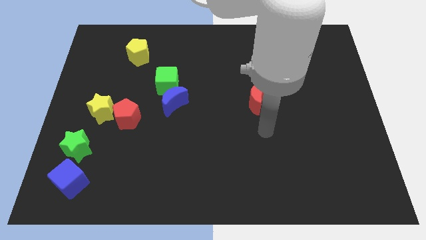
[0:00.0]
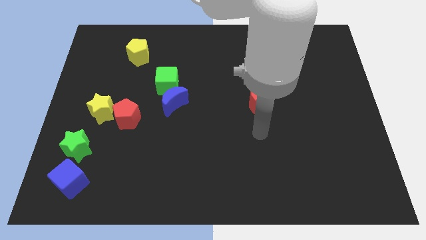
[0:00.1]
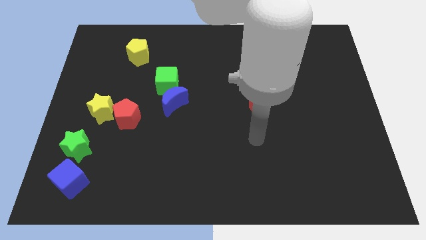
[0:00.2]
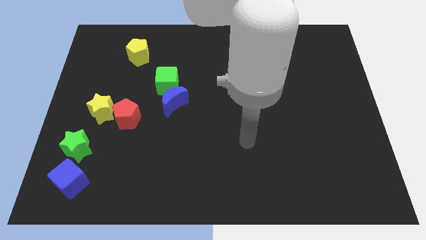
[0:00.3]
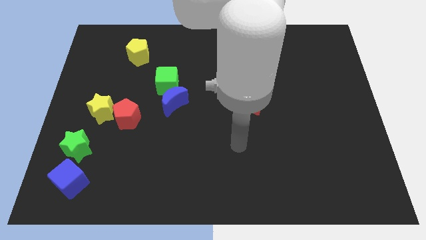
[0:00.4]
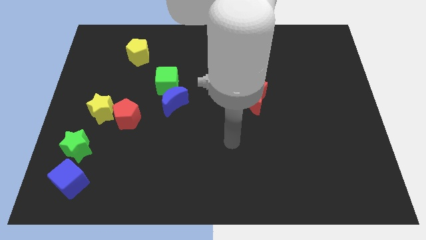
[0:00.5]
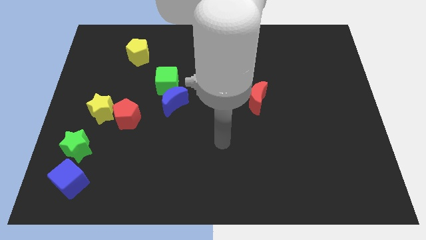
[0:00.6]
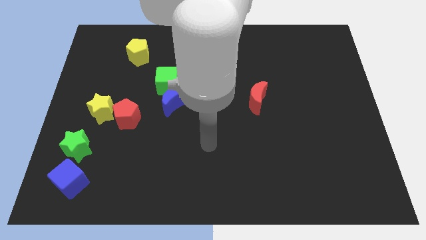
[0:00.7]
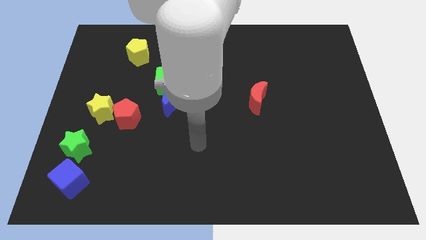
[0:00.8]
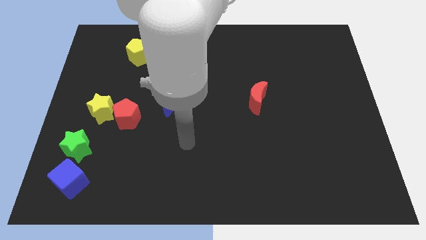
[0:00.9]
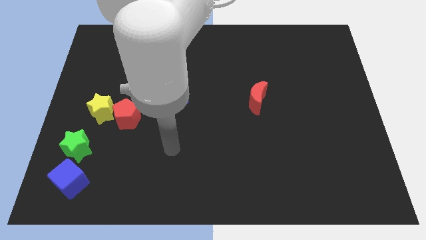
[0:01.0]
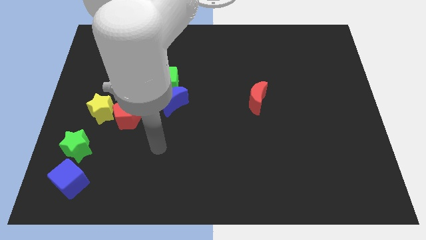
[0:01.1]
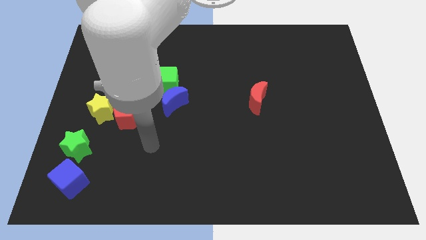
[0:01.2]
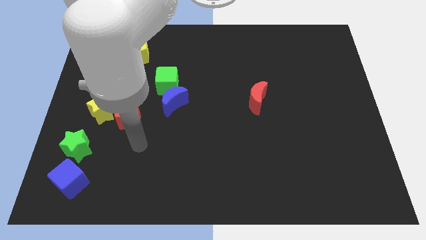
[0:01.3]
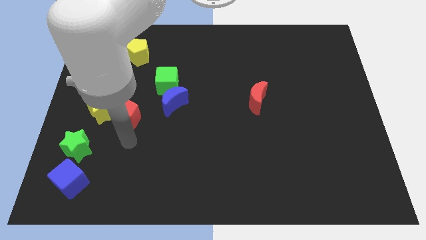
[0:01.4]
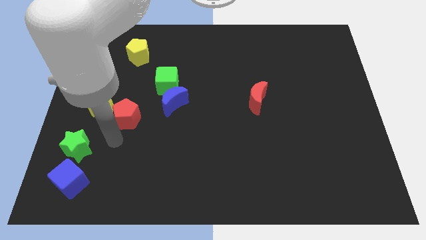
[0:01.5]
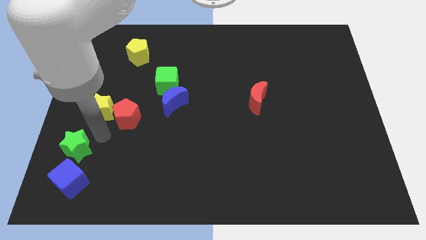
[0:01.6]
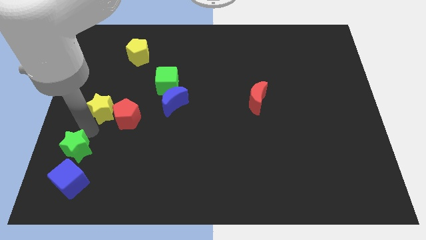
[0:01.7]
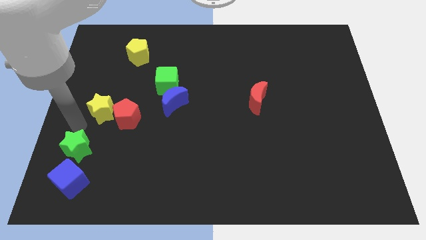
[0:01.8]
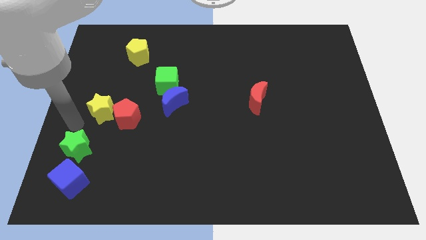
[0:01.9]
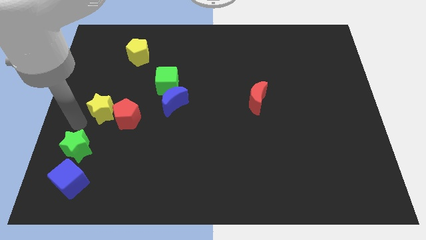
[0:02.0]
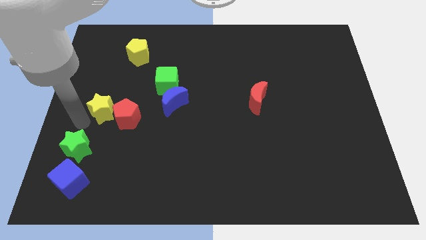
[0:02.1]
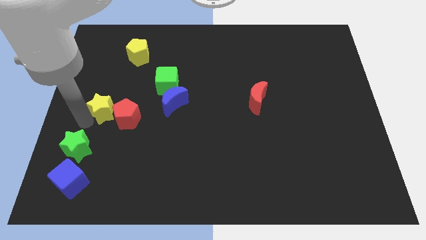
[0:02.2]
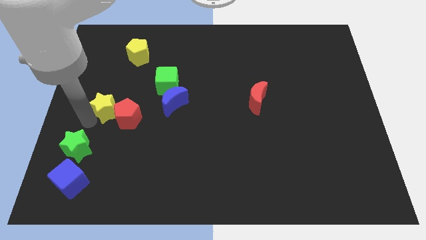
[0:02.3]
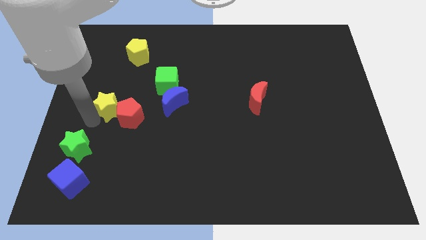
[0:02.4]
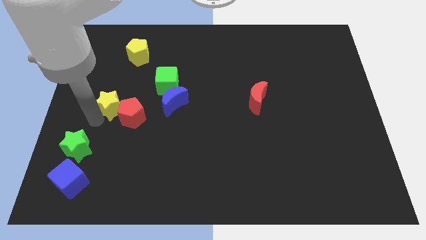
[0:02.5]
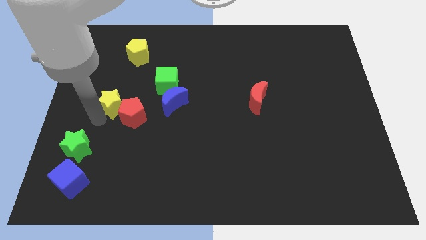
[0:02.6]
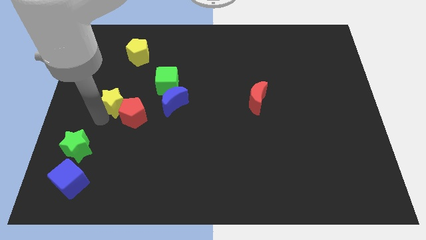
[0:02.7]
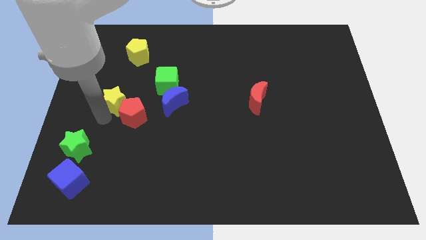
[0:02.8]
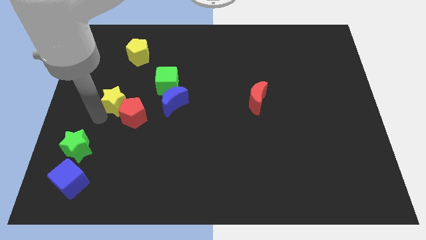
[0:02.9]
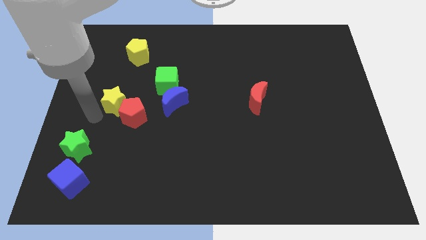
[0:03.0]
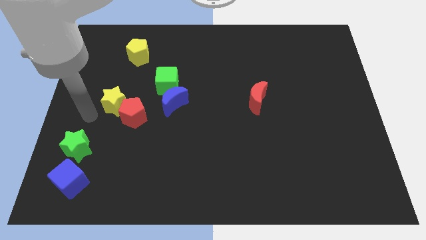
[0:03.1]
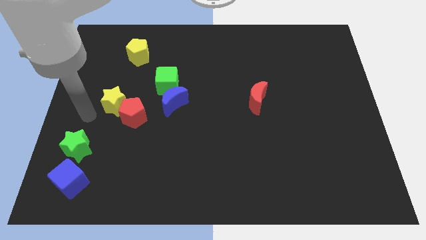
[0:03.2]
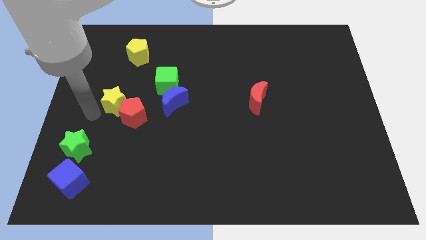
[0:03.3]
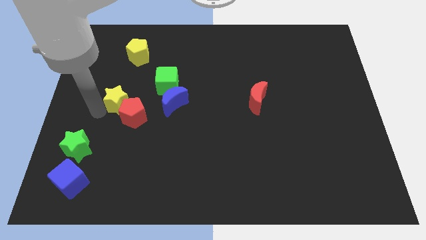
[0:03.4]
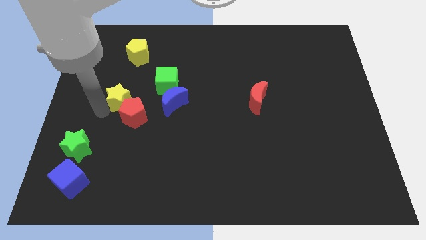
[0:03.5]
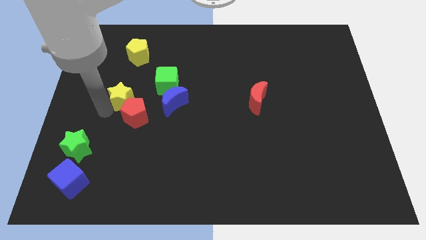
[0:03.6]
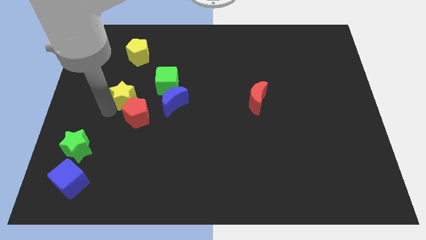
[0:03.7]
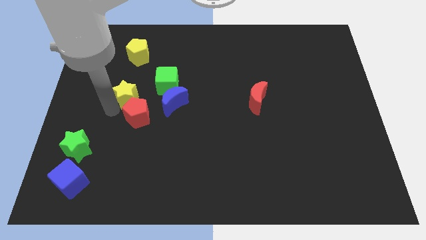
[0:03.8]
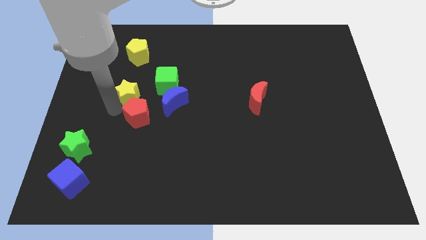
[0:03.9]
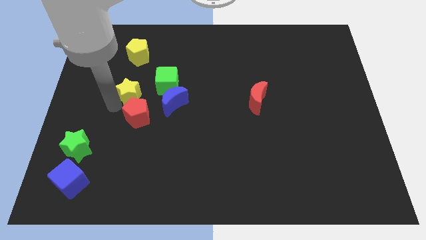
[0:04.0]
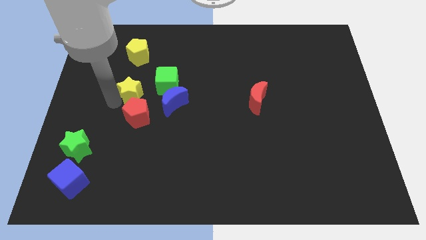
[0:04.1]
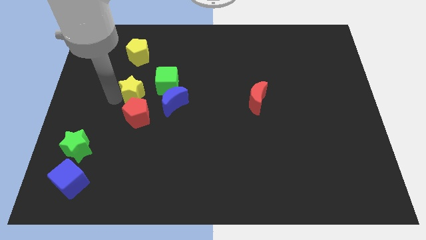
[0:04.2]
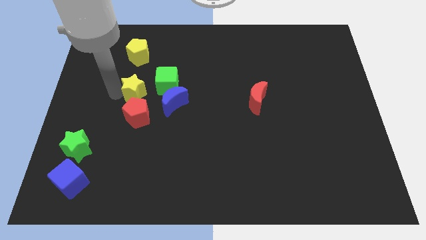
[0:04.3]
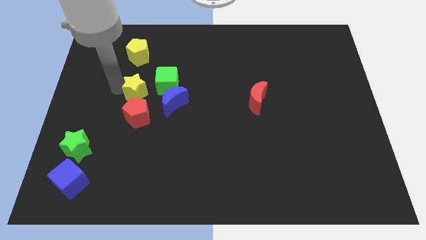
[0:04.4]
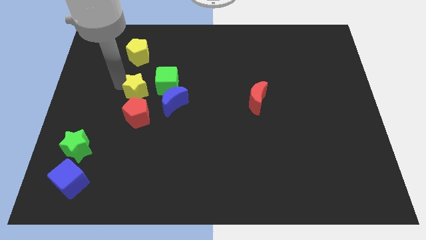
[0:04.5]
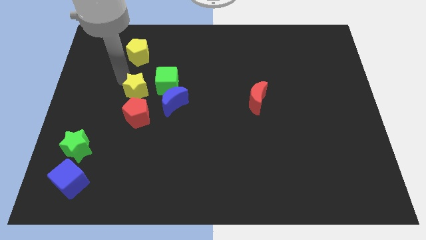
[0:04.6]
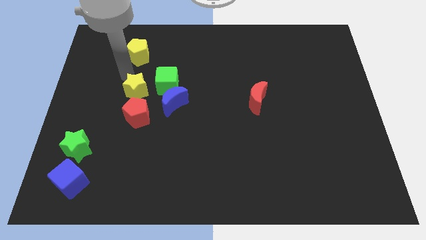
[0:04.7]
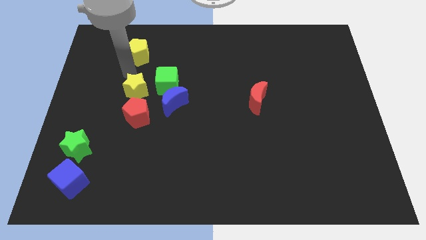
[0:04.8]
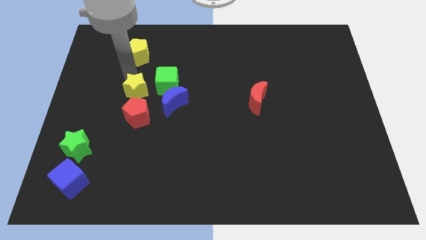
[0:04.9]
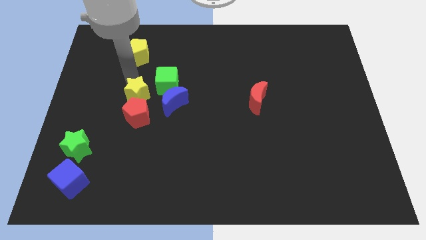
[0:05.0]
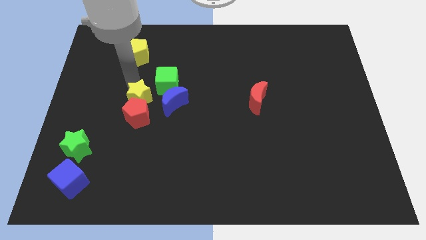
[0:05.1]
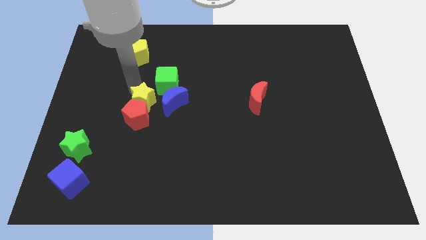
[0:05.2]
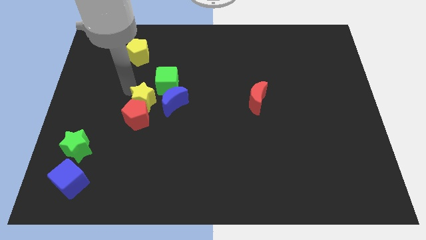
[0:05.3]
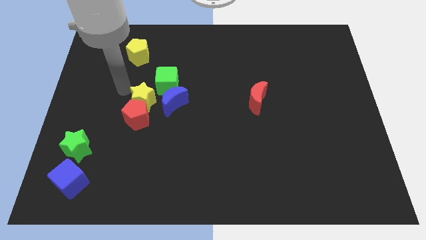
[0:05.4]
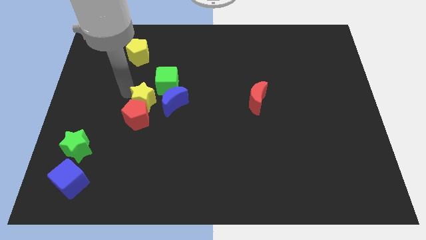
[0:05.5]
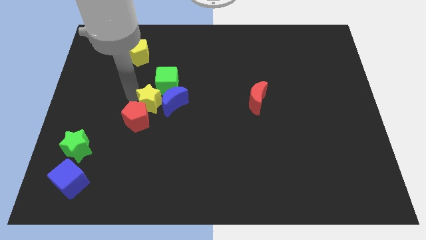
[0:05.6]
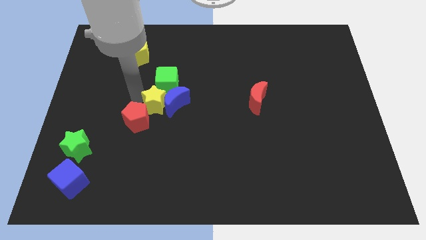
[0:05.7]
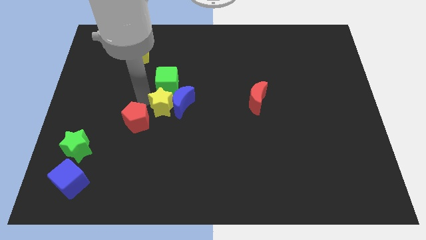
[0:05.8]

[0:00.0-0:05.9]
push the yellow star to the middle of the board

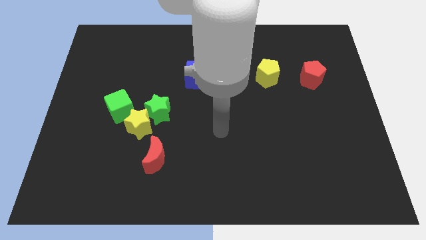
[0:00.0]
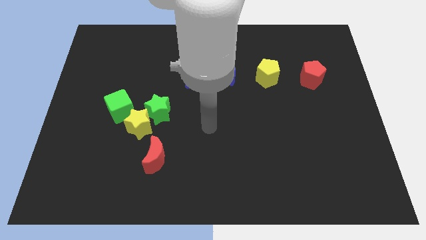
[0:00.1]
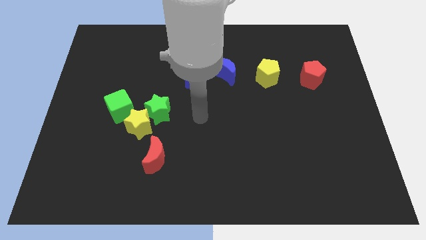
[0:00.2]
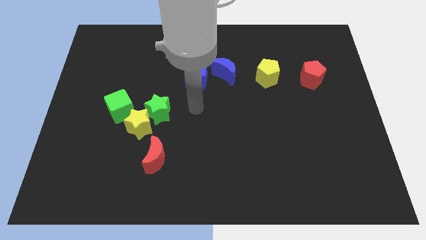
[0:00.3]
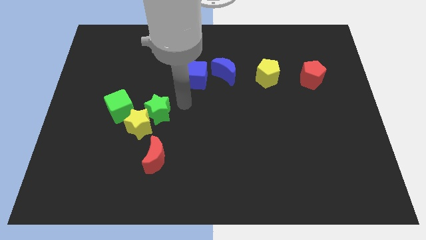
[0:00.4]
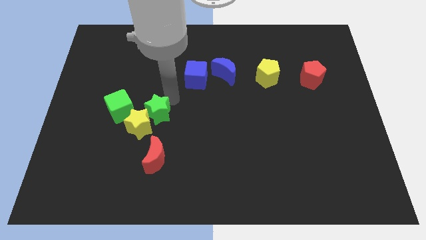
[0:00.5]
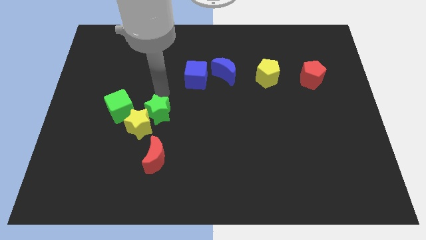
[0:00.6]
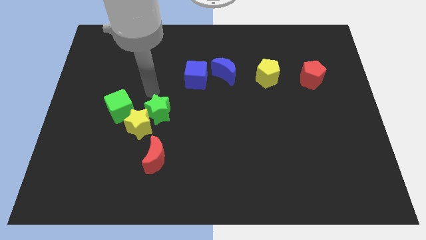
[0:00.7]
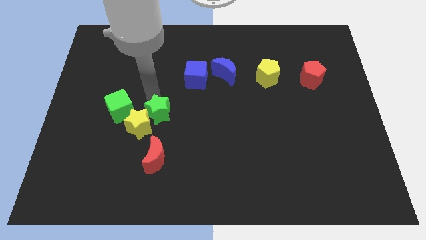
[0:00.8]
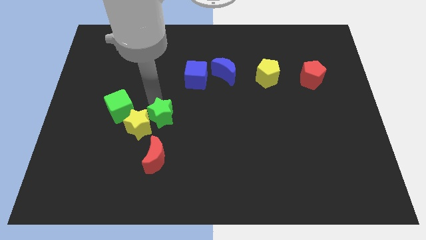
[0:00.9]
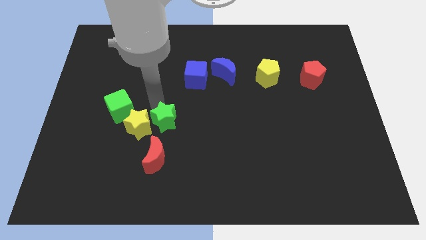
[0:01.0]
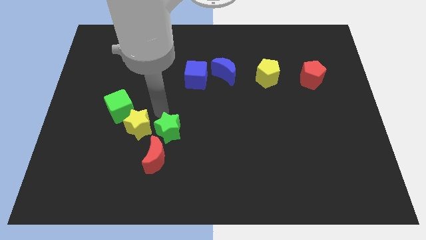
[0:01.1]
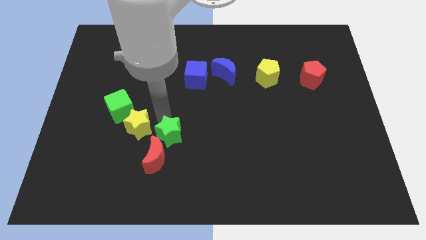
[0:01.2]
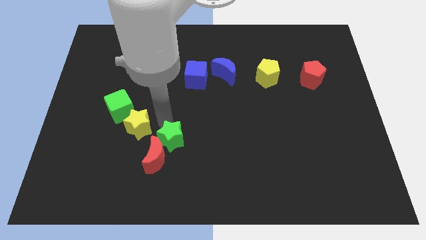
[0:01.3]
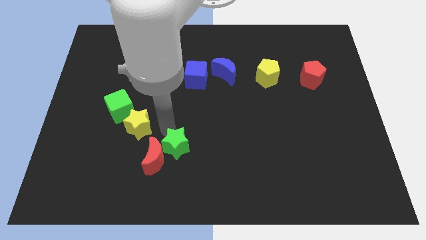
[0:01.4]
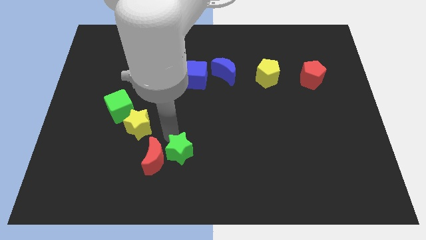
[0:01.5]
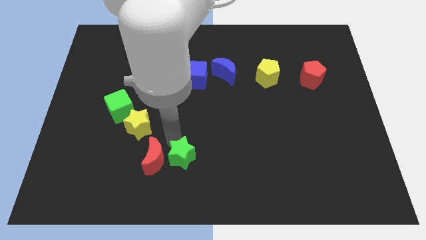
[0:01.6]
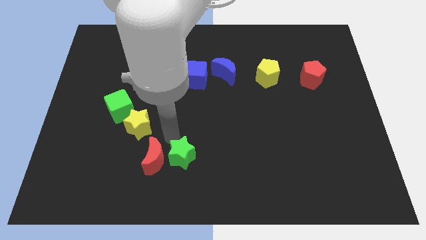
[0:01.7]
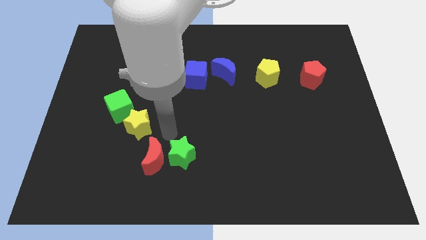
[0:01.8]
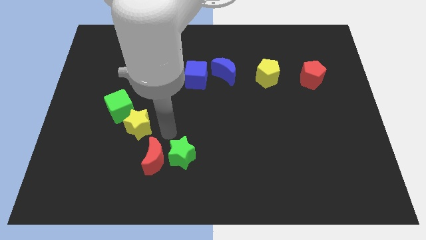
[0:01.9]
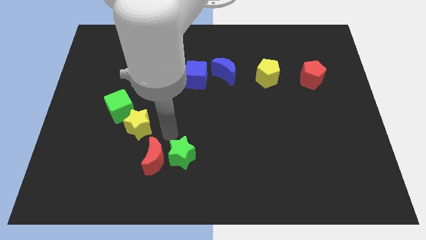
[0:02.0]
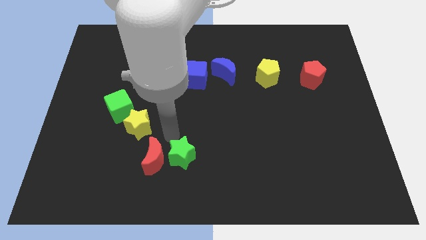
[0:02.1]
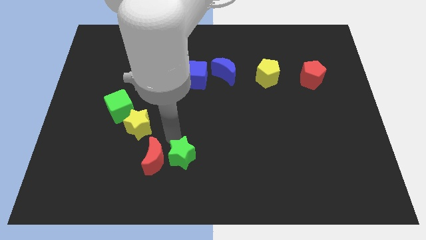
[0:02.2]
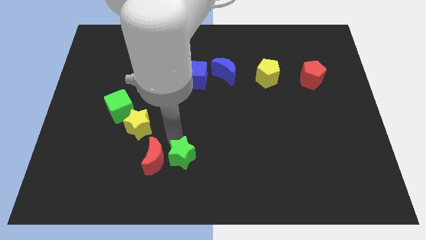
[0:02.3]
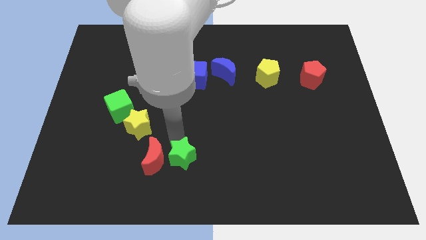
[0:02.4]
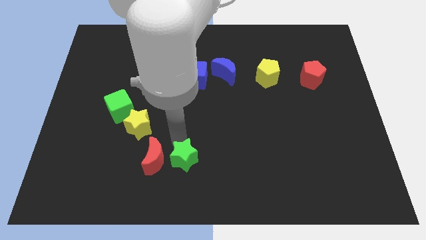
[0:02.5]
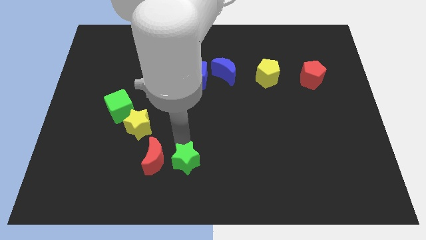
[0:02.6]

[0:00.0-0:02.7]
push the green star to the bottom
